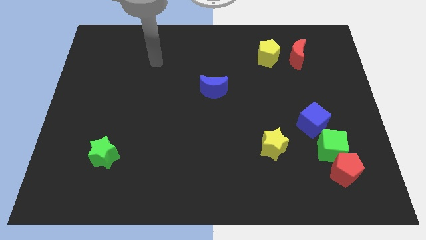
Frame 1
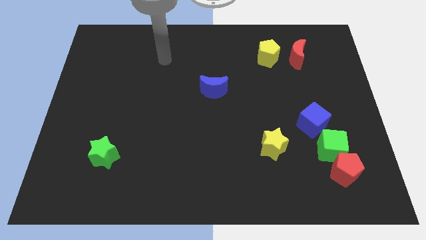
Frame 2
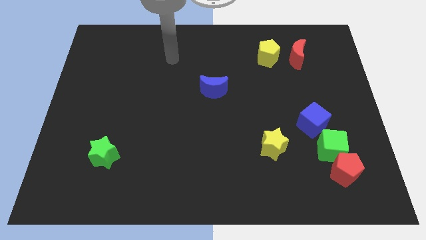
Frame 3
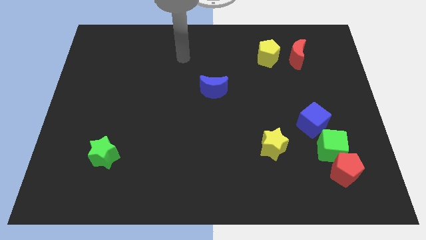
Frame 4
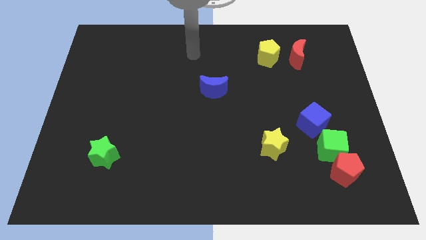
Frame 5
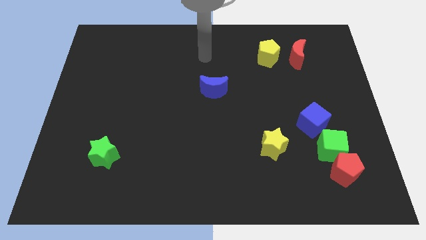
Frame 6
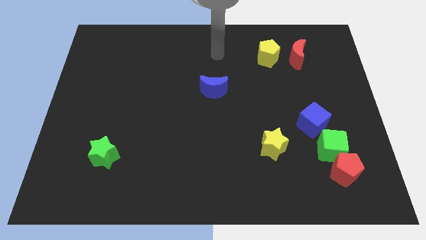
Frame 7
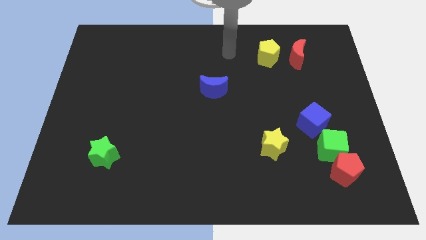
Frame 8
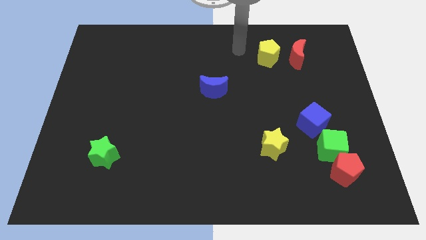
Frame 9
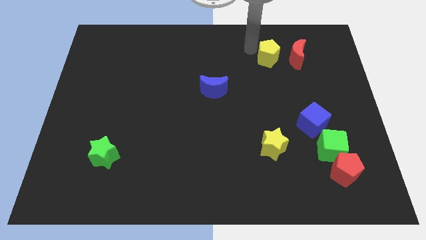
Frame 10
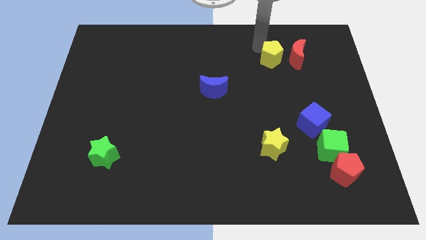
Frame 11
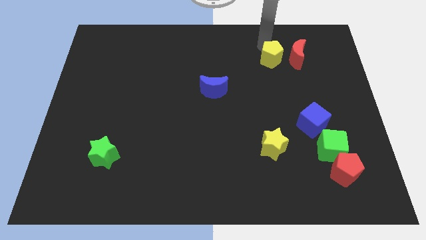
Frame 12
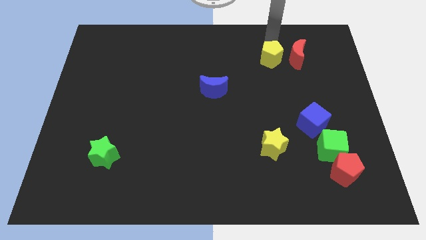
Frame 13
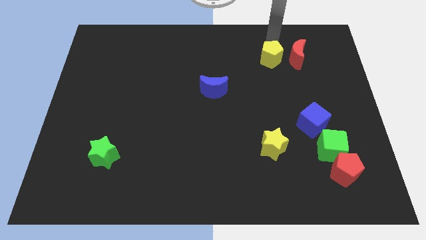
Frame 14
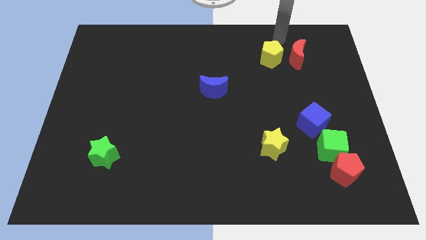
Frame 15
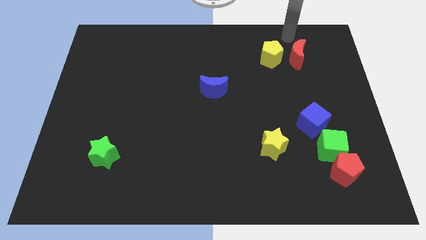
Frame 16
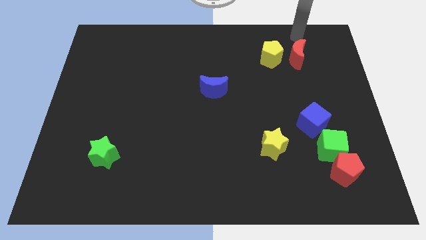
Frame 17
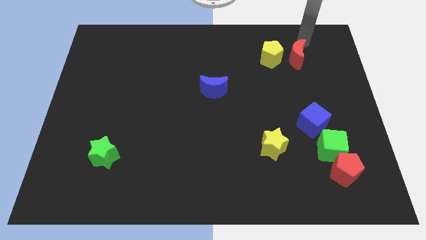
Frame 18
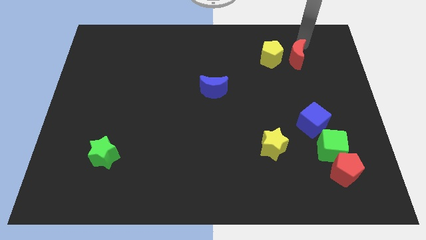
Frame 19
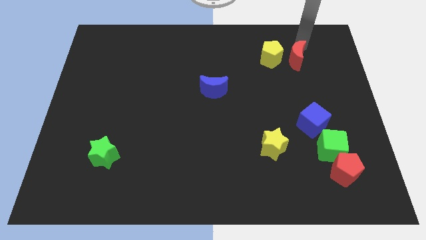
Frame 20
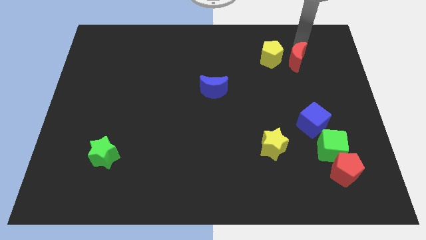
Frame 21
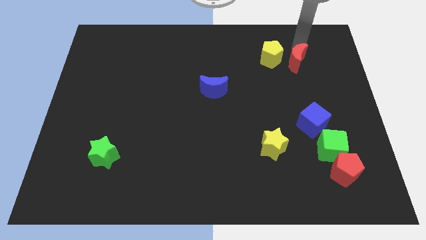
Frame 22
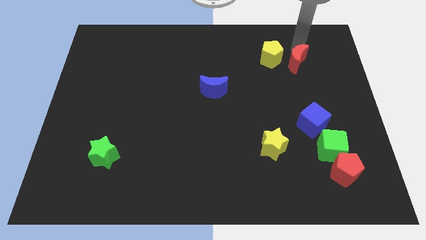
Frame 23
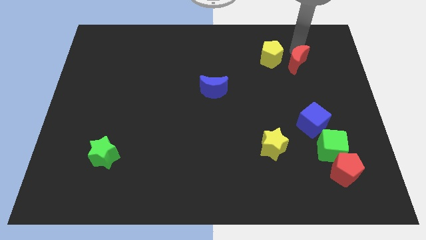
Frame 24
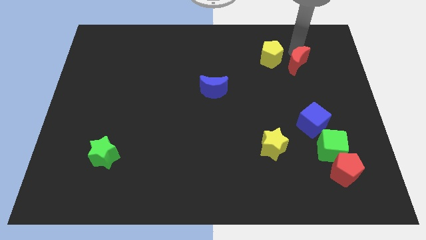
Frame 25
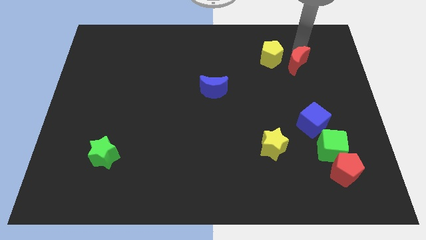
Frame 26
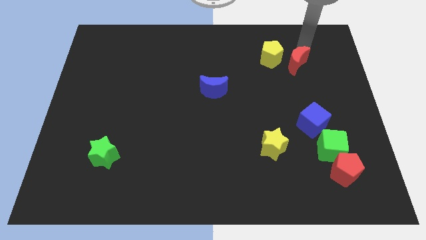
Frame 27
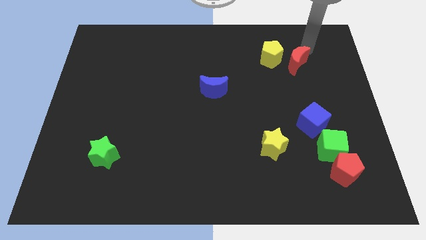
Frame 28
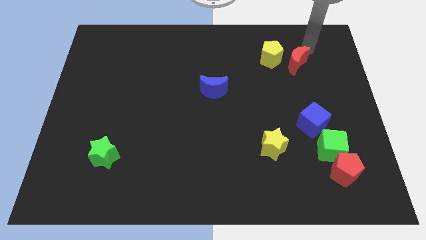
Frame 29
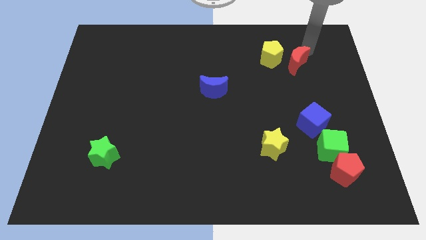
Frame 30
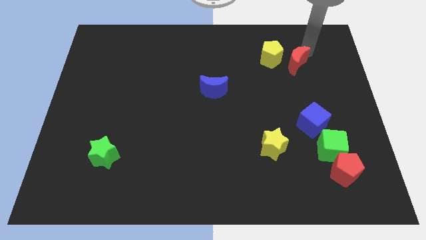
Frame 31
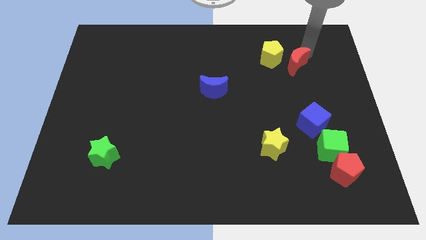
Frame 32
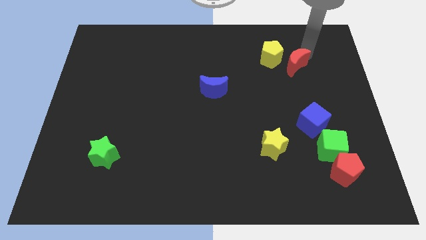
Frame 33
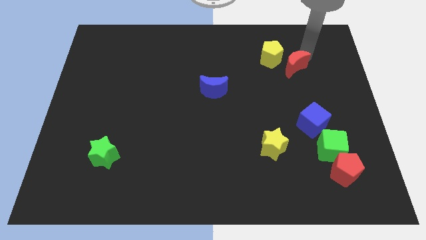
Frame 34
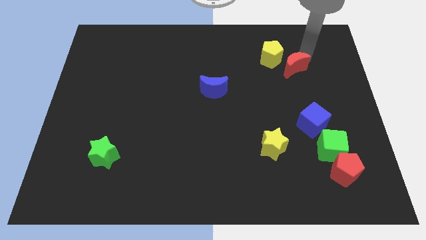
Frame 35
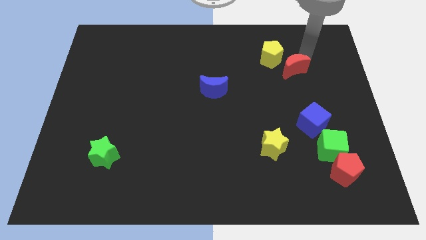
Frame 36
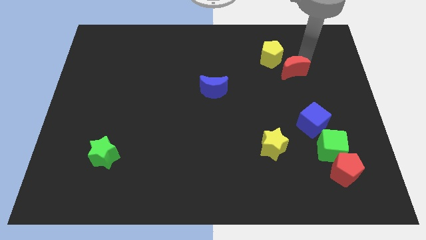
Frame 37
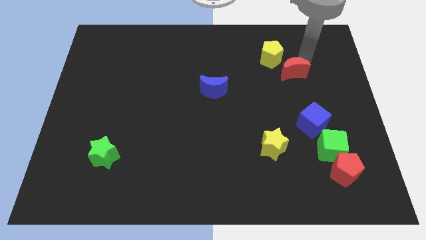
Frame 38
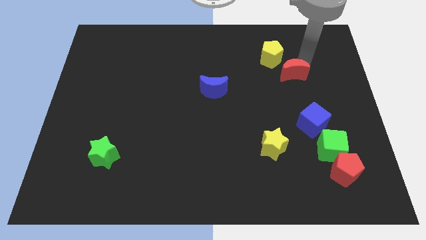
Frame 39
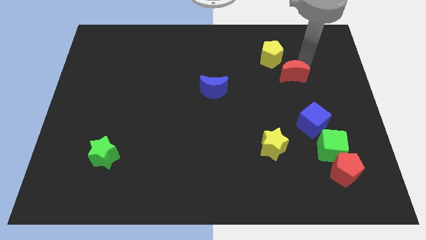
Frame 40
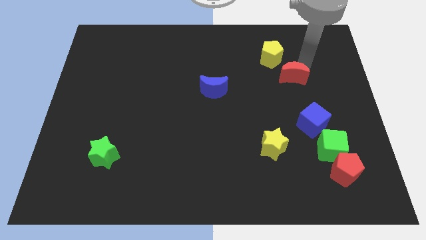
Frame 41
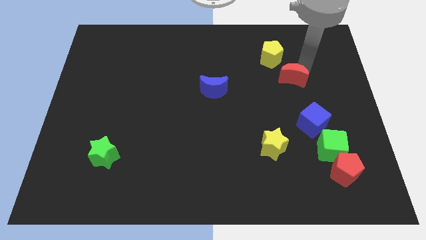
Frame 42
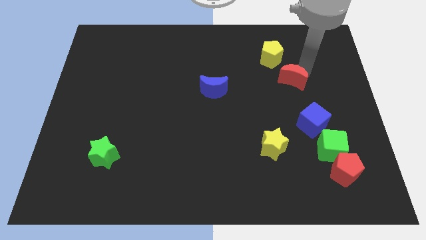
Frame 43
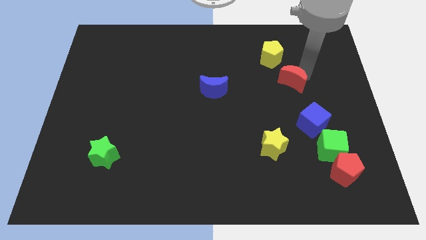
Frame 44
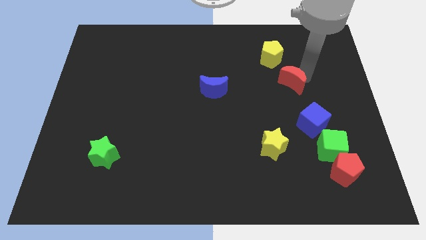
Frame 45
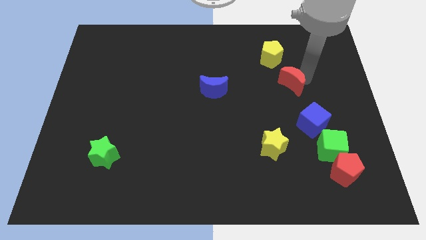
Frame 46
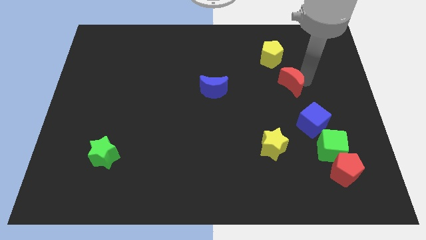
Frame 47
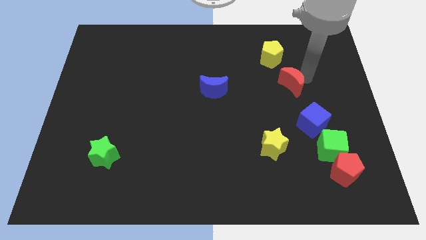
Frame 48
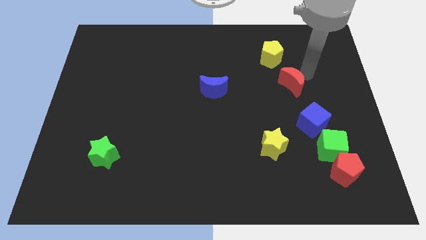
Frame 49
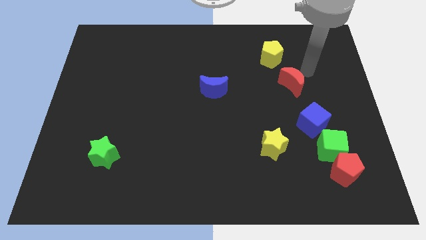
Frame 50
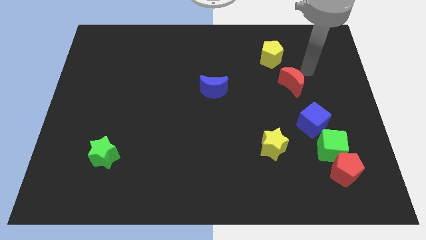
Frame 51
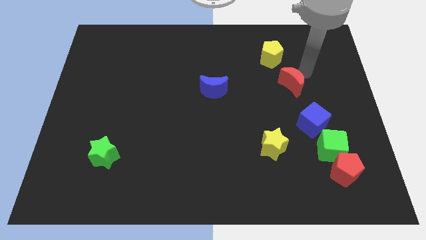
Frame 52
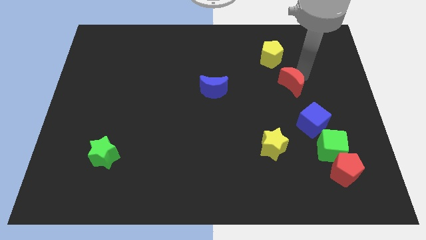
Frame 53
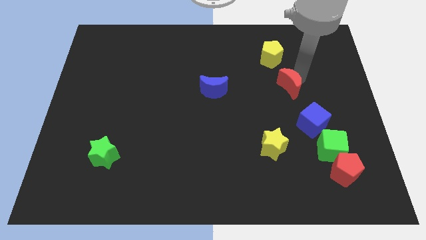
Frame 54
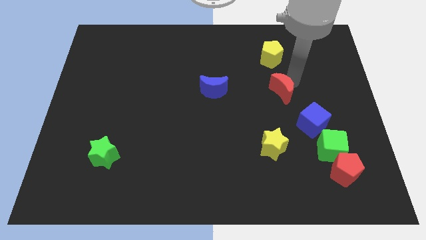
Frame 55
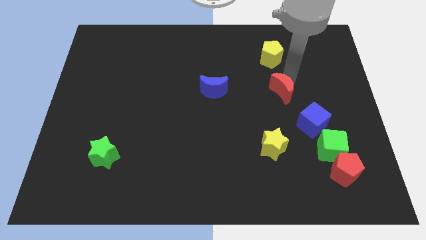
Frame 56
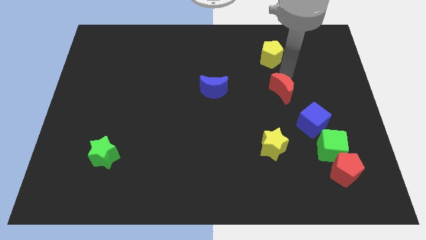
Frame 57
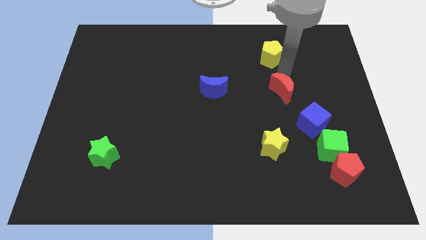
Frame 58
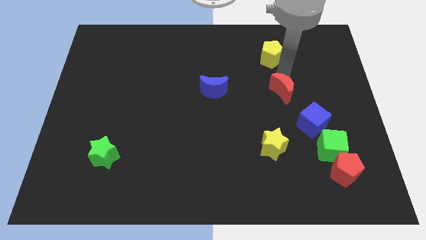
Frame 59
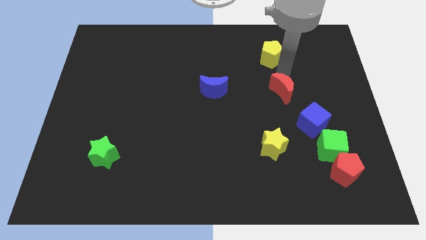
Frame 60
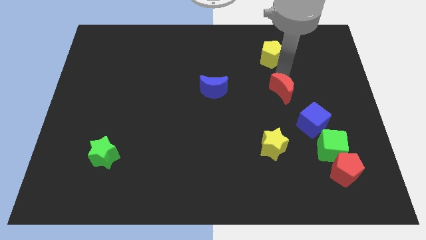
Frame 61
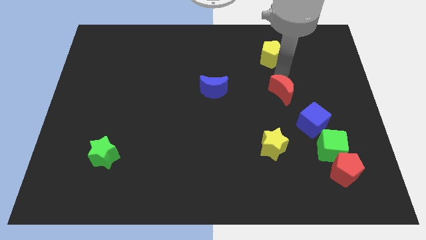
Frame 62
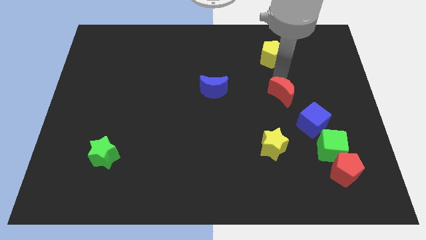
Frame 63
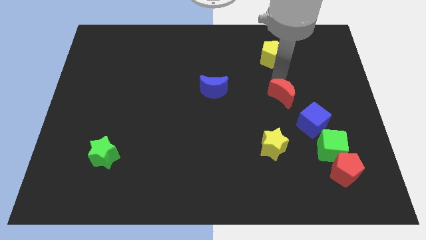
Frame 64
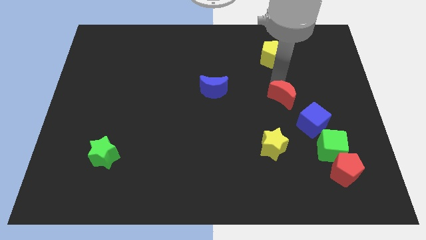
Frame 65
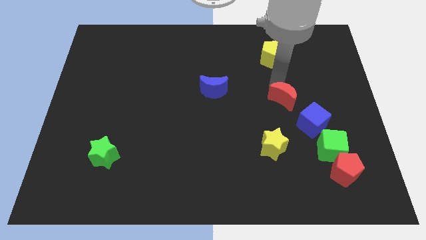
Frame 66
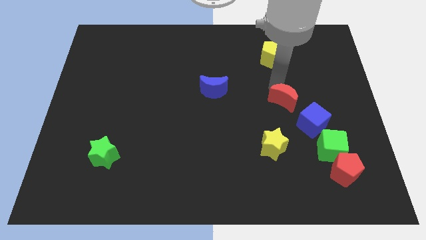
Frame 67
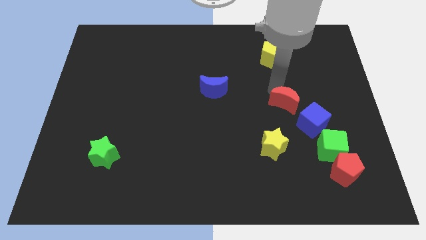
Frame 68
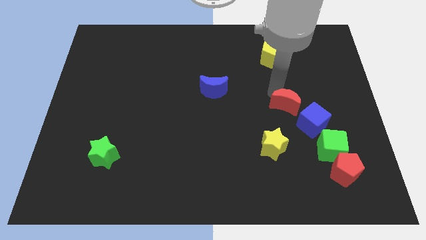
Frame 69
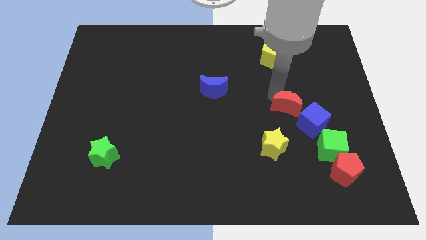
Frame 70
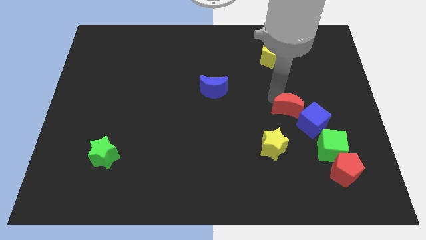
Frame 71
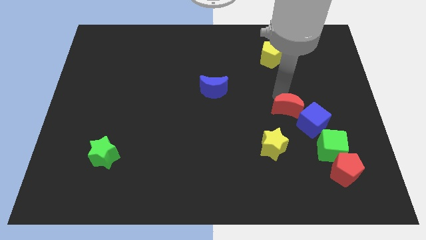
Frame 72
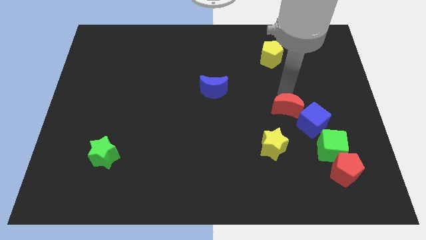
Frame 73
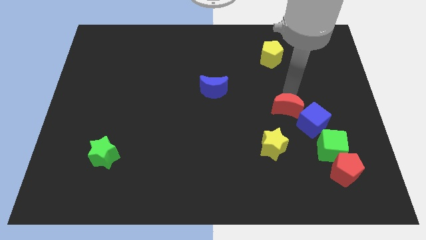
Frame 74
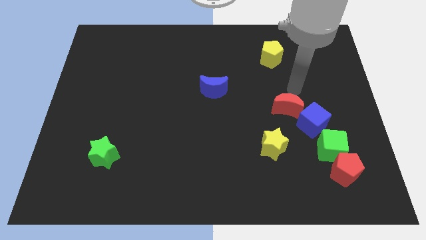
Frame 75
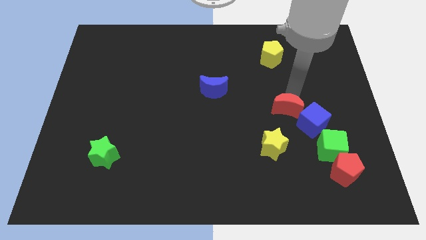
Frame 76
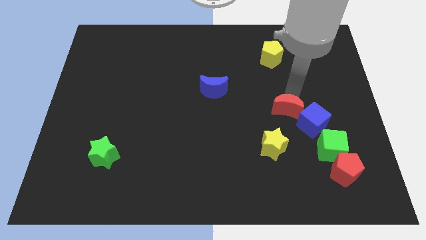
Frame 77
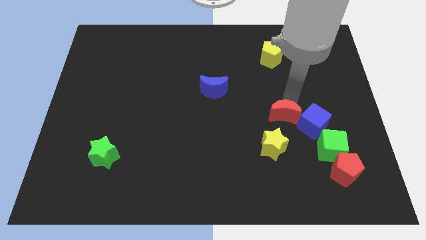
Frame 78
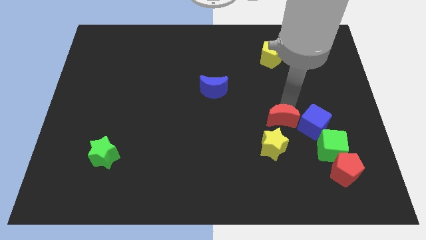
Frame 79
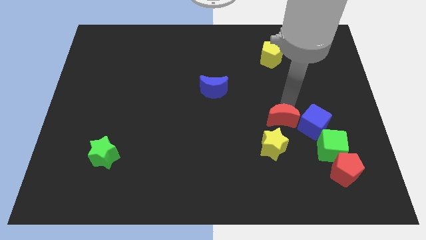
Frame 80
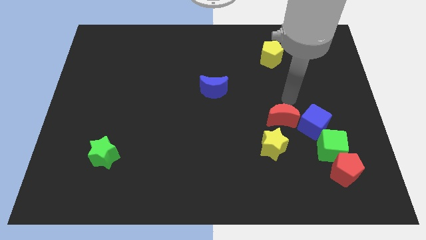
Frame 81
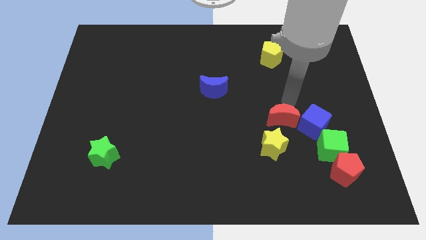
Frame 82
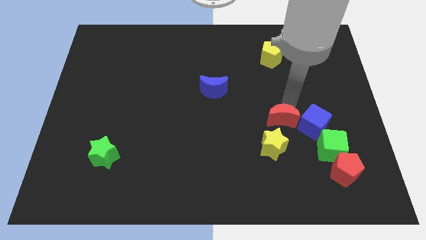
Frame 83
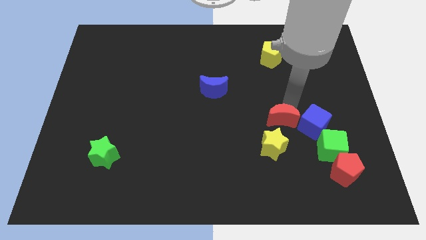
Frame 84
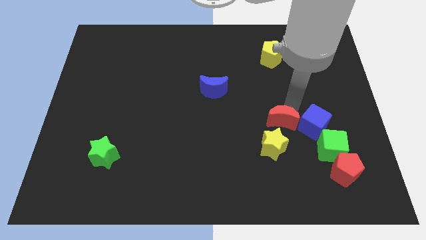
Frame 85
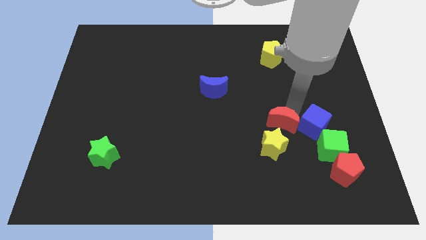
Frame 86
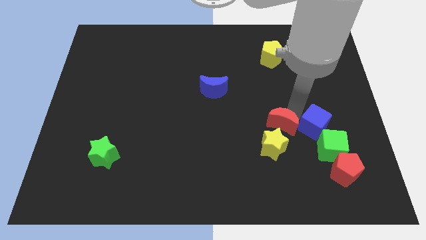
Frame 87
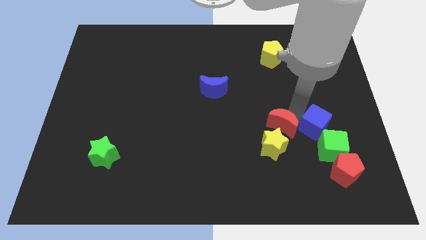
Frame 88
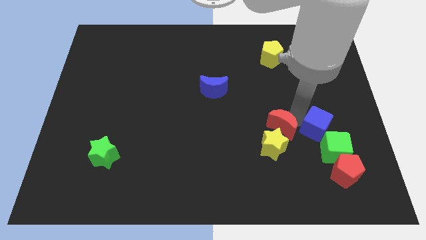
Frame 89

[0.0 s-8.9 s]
move the red moon to the yellow star
